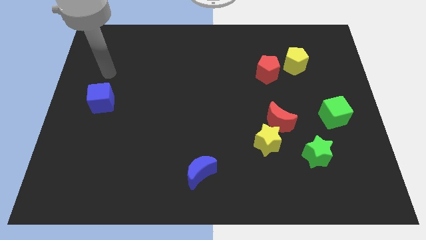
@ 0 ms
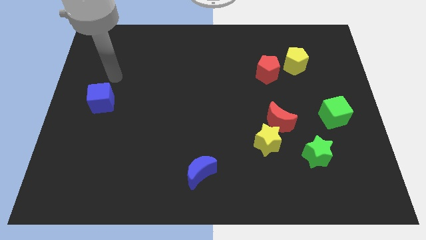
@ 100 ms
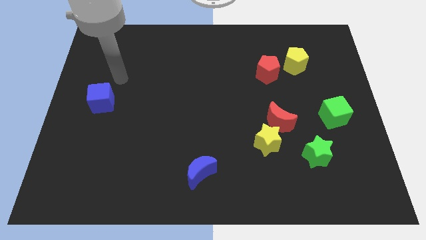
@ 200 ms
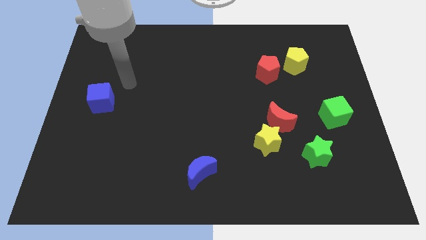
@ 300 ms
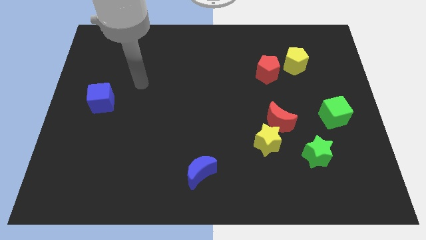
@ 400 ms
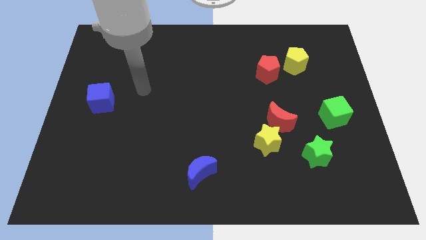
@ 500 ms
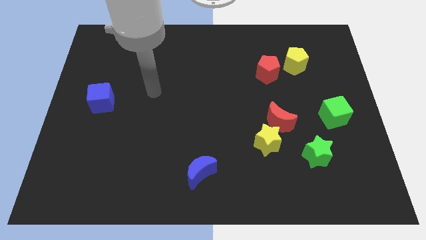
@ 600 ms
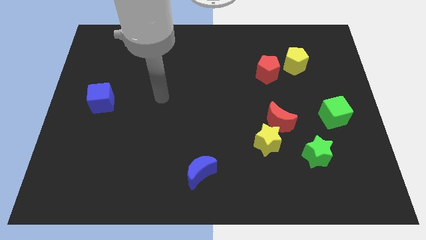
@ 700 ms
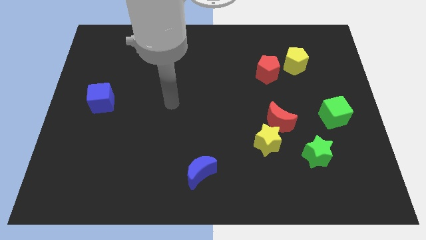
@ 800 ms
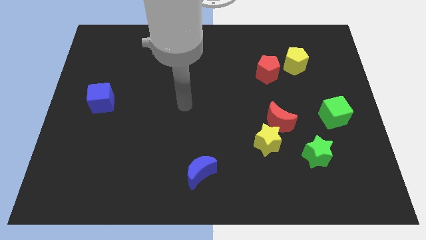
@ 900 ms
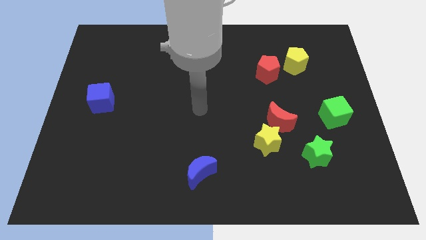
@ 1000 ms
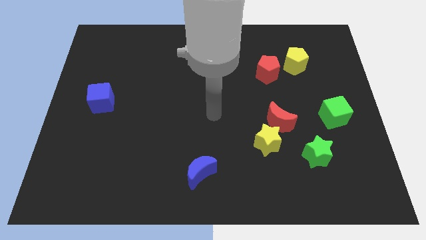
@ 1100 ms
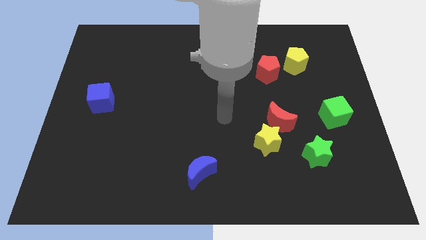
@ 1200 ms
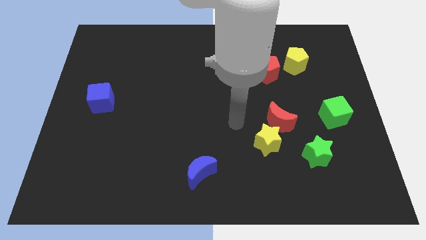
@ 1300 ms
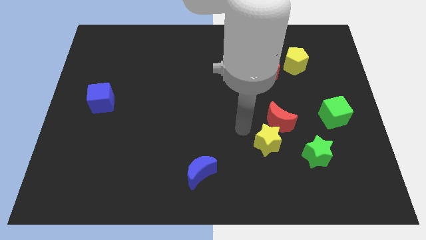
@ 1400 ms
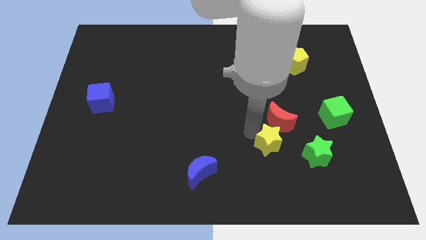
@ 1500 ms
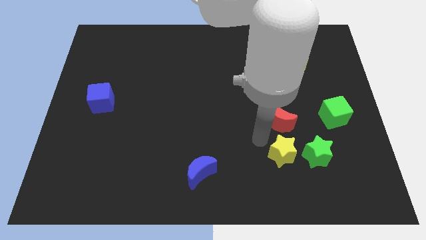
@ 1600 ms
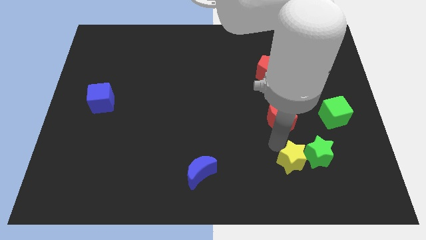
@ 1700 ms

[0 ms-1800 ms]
move the red moon away from the yellow star

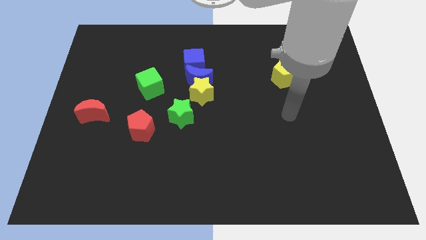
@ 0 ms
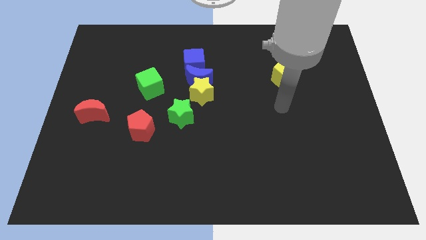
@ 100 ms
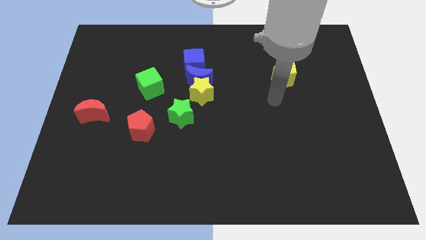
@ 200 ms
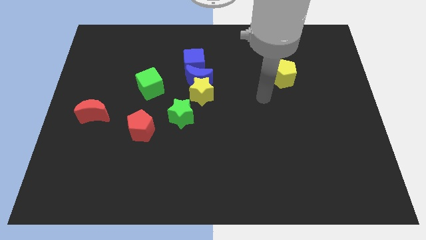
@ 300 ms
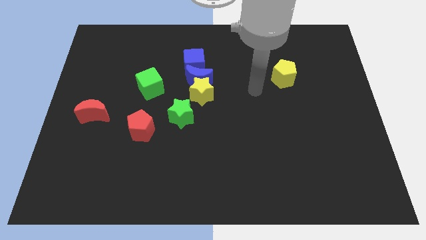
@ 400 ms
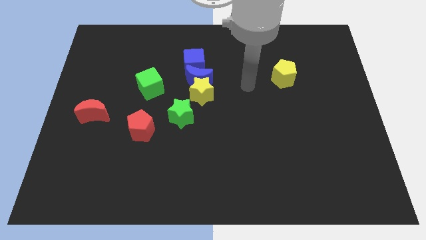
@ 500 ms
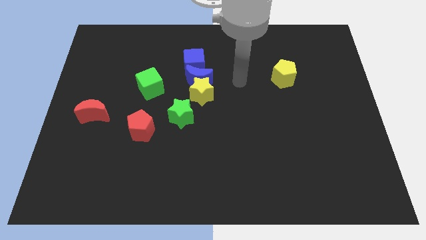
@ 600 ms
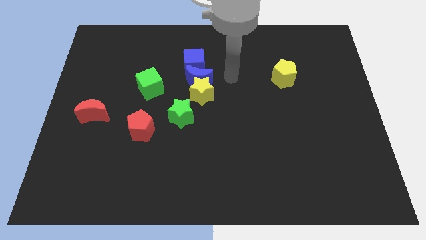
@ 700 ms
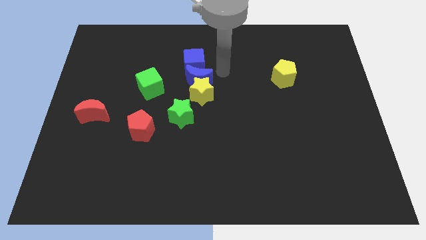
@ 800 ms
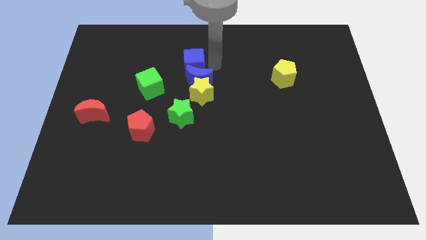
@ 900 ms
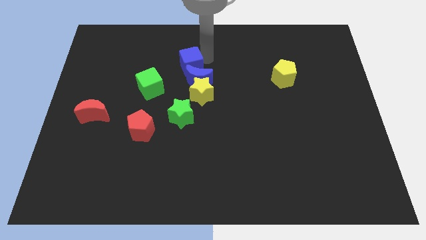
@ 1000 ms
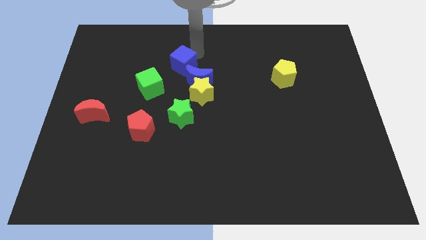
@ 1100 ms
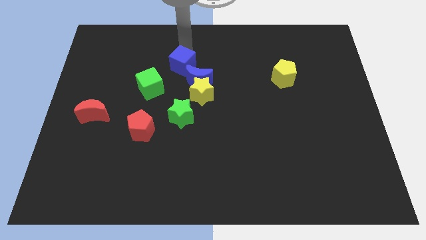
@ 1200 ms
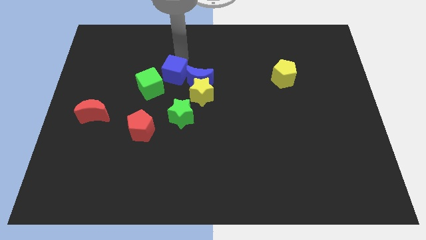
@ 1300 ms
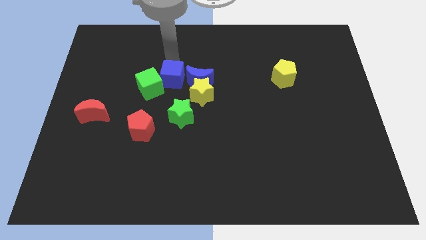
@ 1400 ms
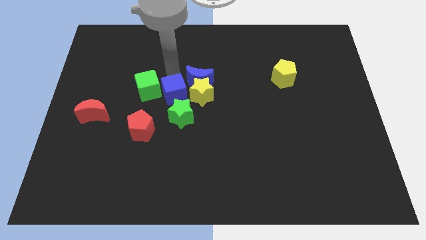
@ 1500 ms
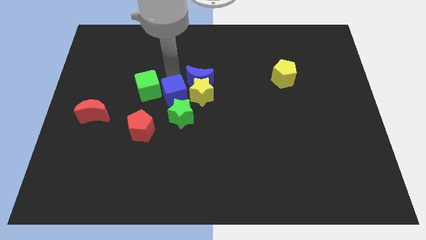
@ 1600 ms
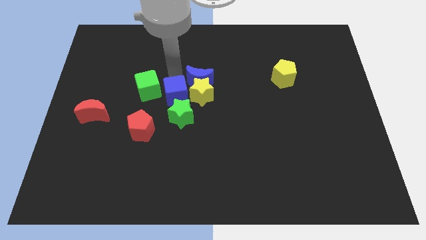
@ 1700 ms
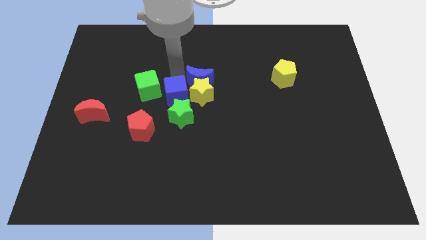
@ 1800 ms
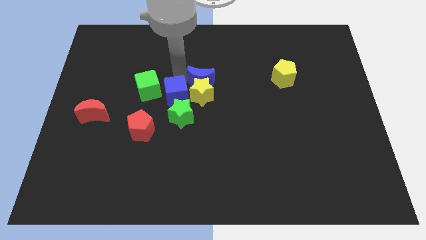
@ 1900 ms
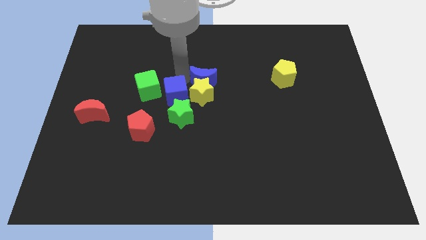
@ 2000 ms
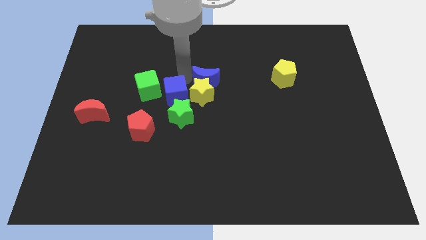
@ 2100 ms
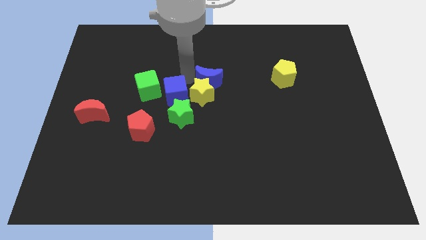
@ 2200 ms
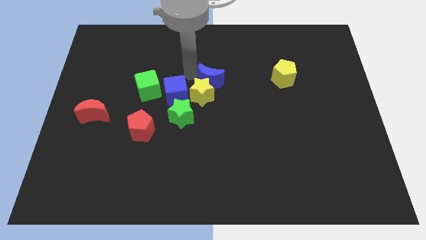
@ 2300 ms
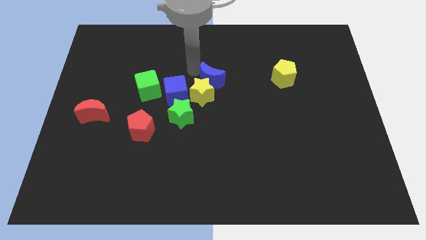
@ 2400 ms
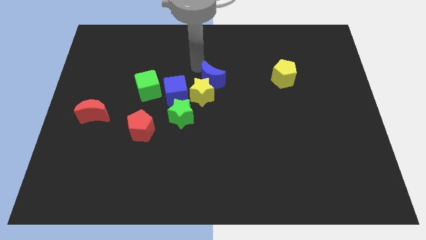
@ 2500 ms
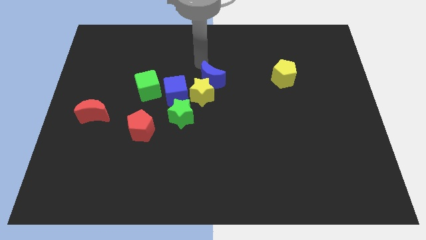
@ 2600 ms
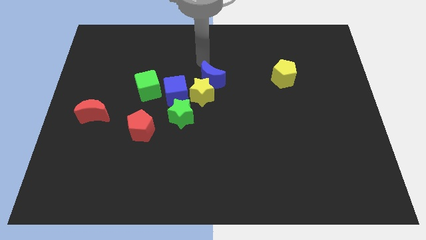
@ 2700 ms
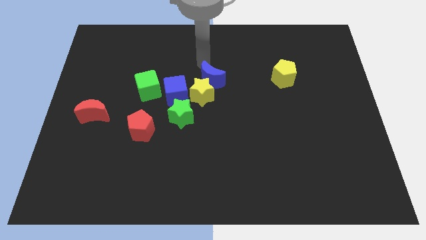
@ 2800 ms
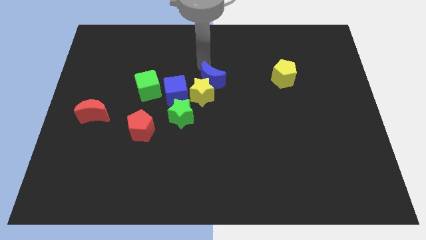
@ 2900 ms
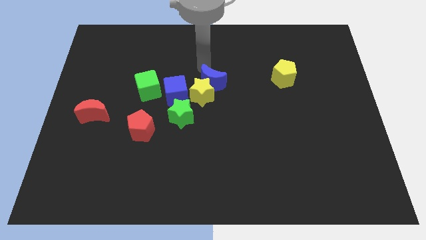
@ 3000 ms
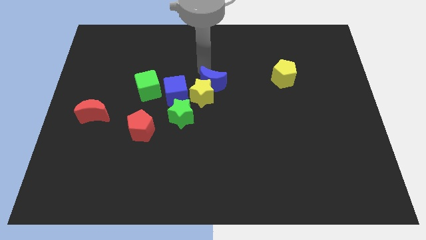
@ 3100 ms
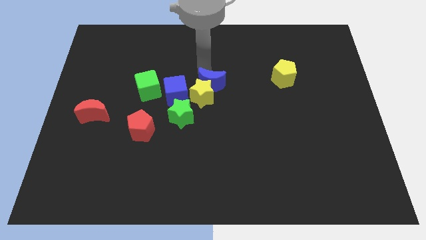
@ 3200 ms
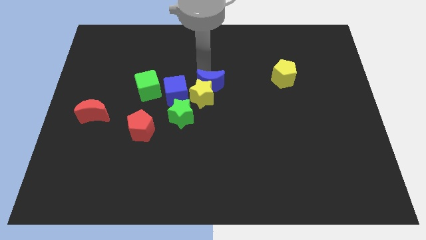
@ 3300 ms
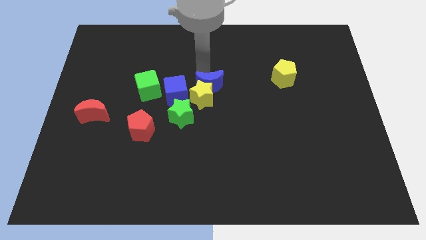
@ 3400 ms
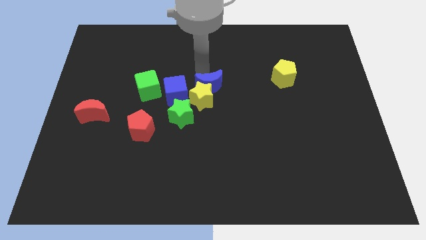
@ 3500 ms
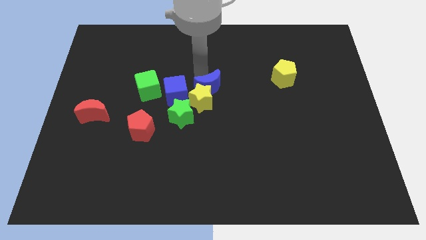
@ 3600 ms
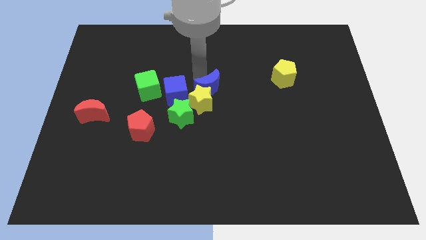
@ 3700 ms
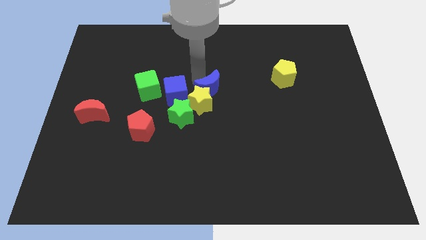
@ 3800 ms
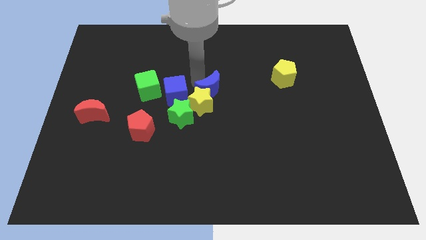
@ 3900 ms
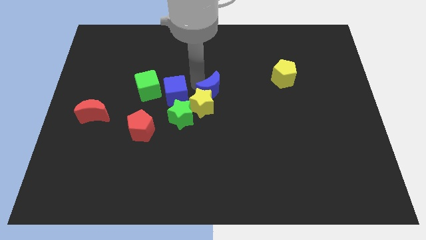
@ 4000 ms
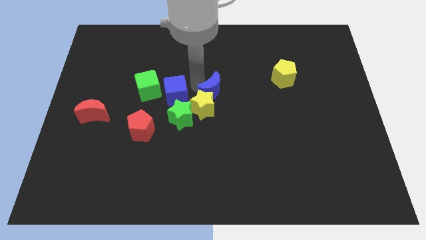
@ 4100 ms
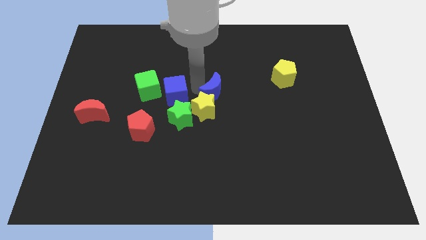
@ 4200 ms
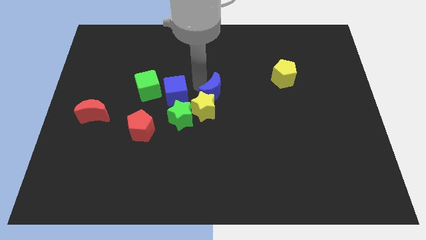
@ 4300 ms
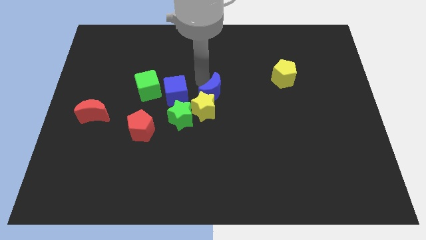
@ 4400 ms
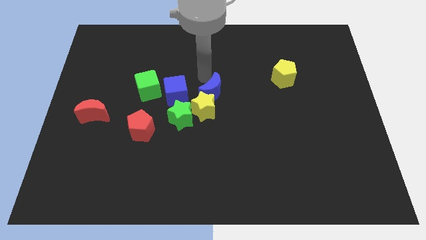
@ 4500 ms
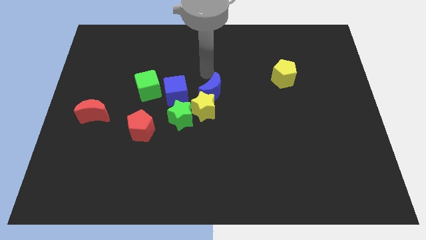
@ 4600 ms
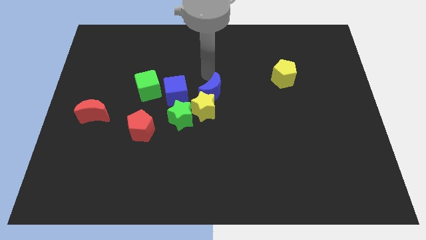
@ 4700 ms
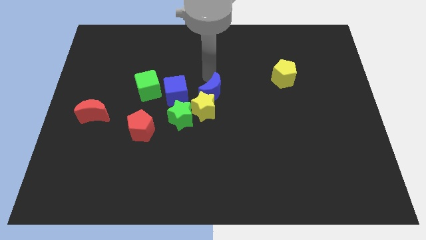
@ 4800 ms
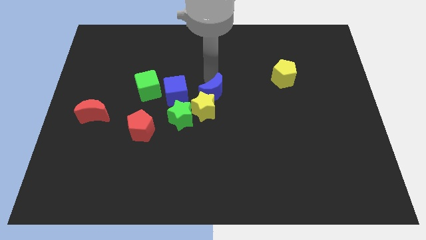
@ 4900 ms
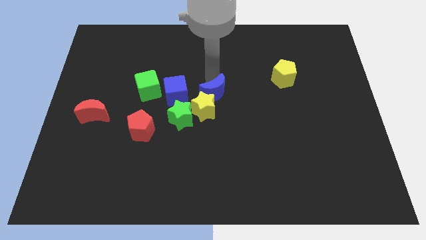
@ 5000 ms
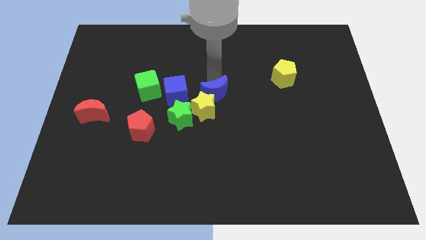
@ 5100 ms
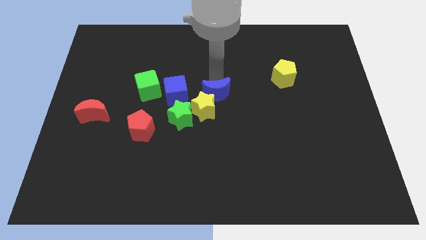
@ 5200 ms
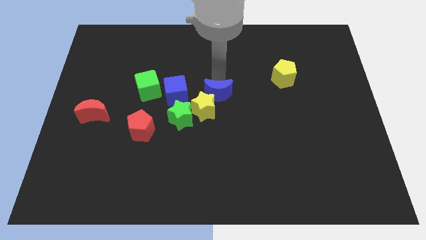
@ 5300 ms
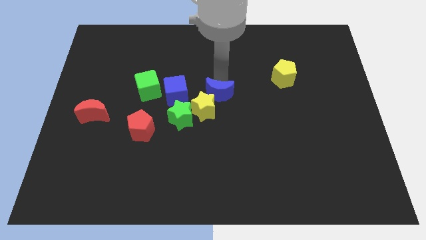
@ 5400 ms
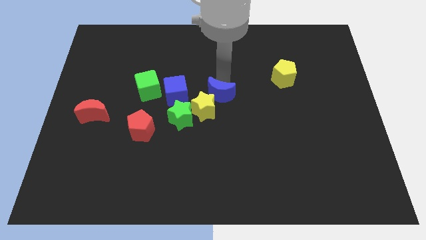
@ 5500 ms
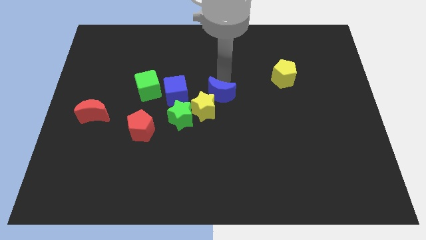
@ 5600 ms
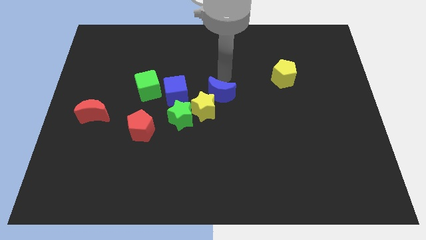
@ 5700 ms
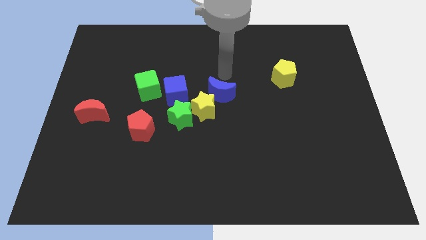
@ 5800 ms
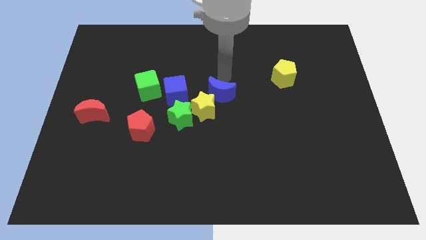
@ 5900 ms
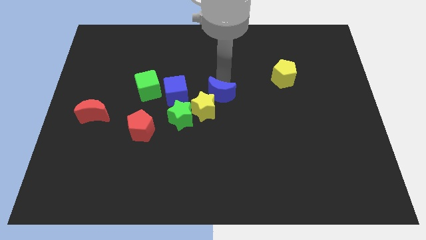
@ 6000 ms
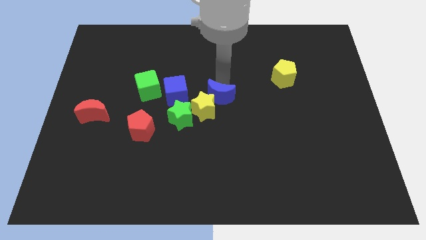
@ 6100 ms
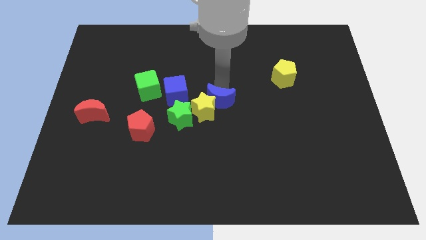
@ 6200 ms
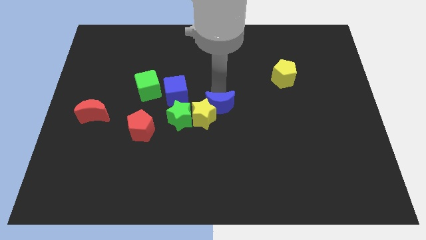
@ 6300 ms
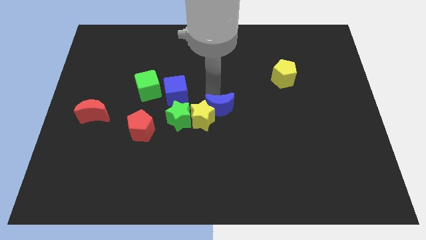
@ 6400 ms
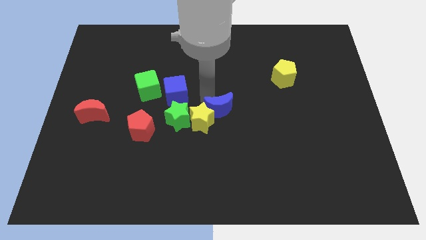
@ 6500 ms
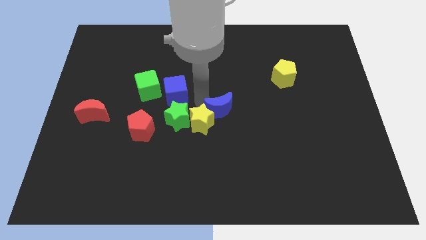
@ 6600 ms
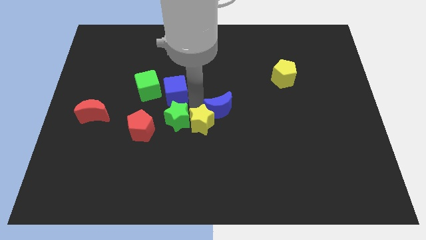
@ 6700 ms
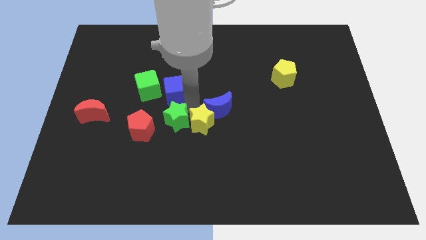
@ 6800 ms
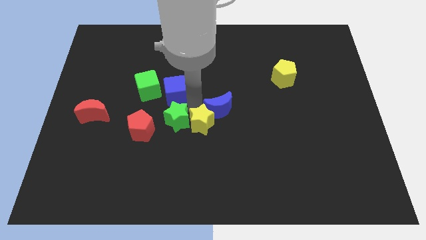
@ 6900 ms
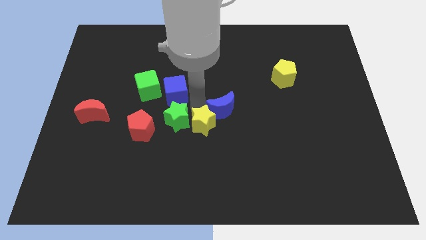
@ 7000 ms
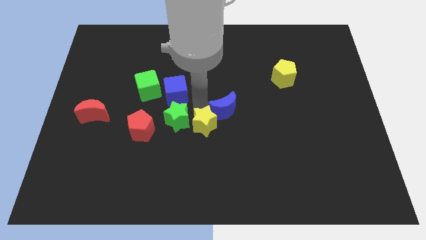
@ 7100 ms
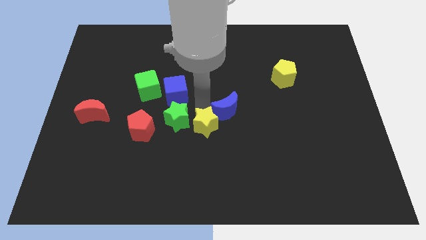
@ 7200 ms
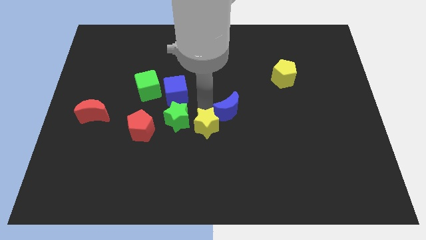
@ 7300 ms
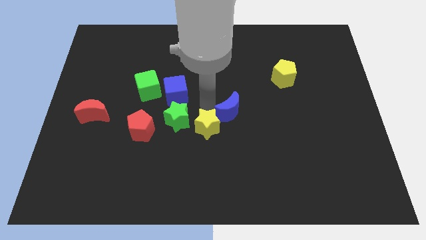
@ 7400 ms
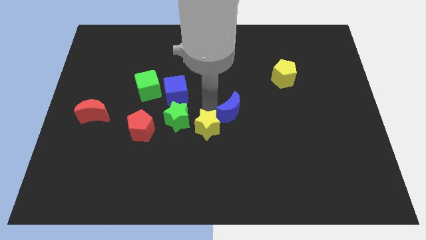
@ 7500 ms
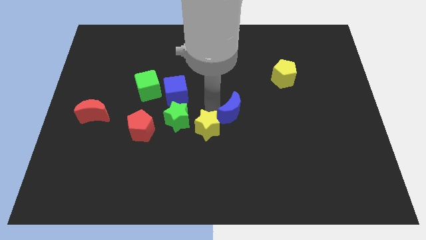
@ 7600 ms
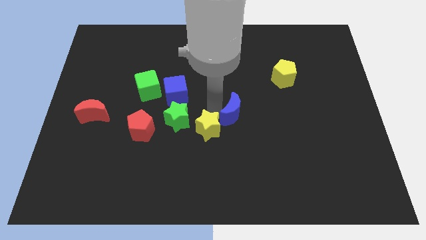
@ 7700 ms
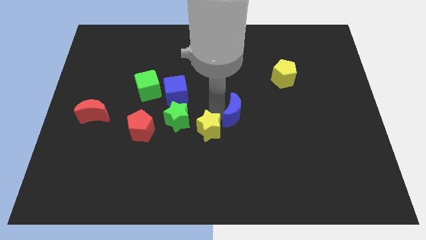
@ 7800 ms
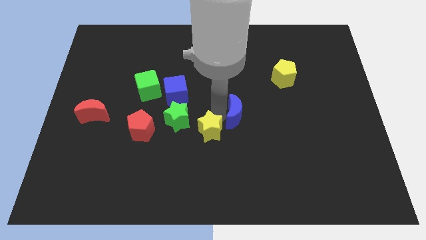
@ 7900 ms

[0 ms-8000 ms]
pull the blue moon apart from the yellow star and blue cube
